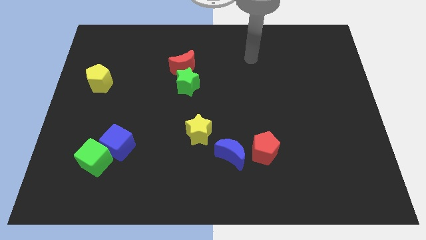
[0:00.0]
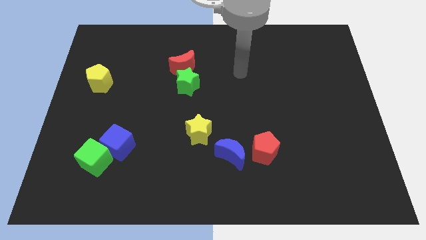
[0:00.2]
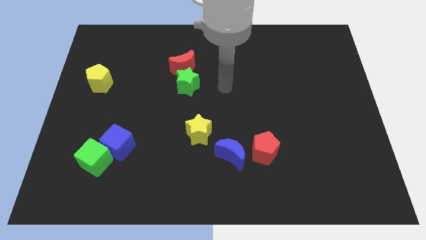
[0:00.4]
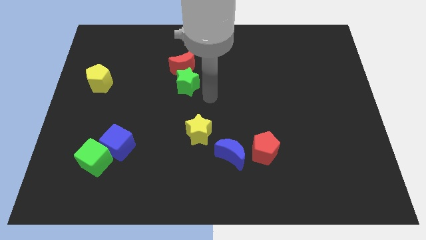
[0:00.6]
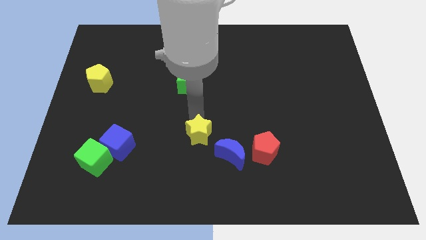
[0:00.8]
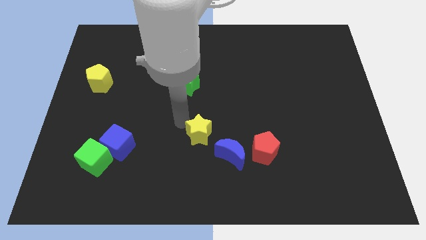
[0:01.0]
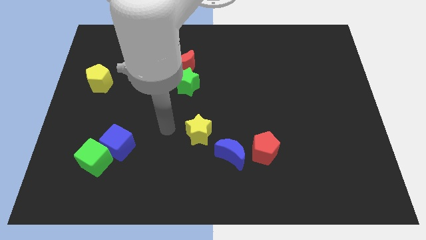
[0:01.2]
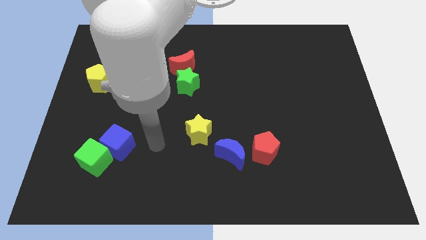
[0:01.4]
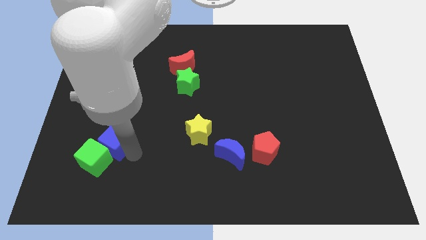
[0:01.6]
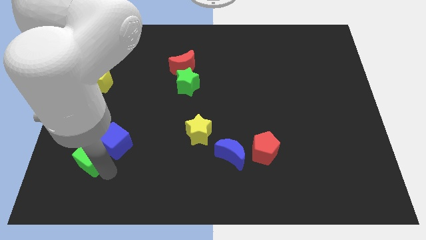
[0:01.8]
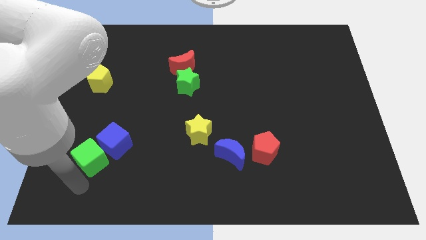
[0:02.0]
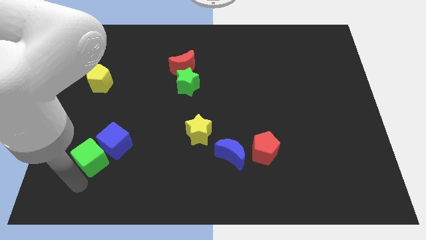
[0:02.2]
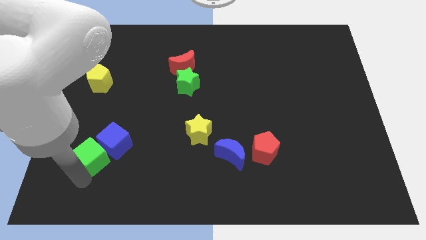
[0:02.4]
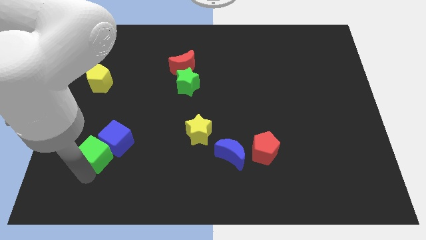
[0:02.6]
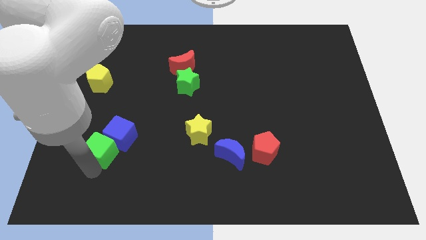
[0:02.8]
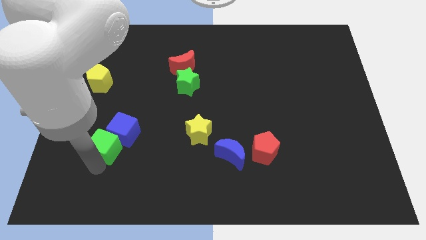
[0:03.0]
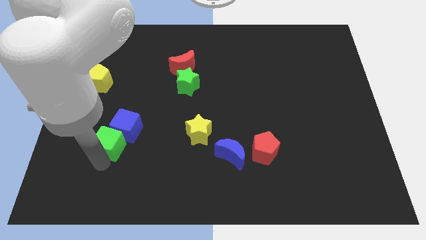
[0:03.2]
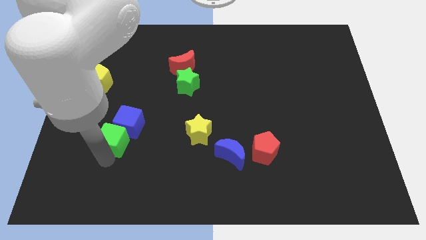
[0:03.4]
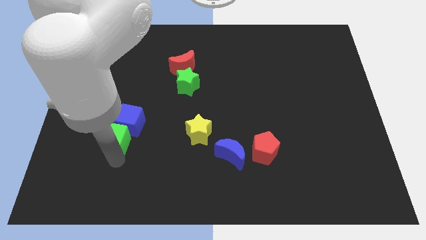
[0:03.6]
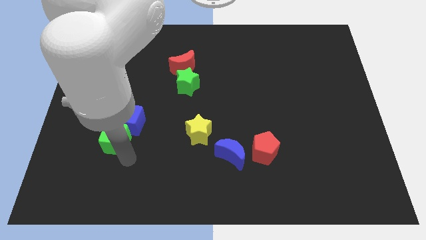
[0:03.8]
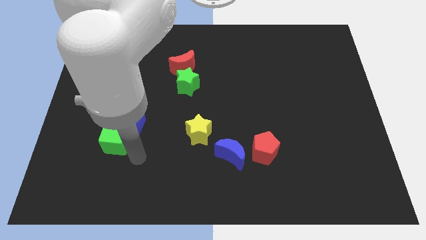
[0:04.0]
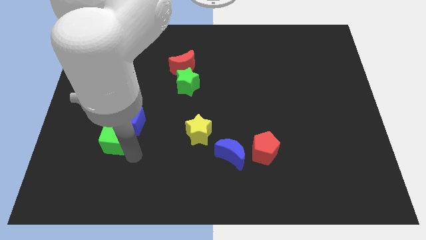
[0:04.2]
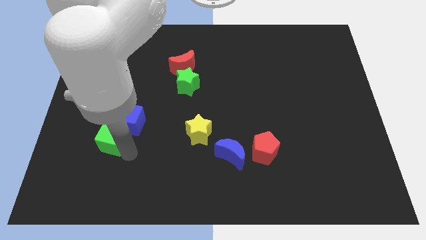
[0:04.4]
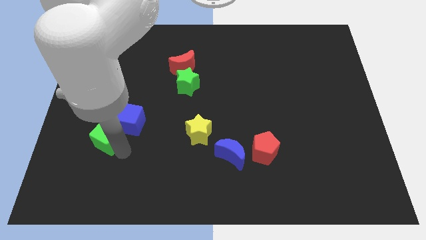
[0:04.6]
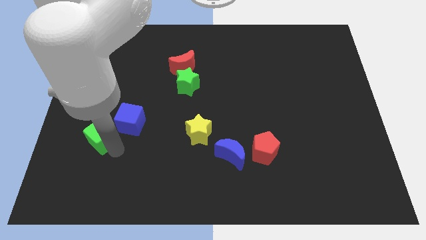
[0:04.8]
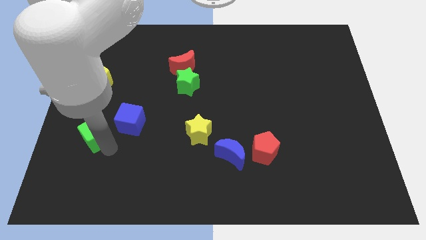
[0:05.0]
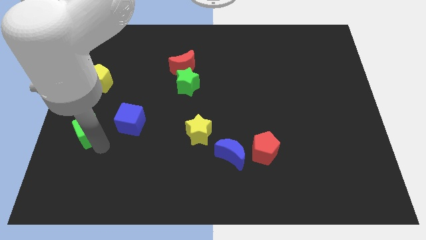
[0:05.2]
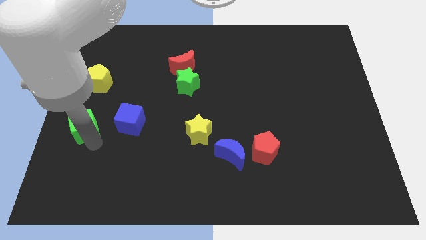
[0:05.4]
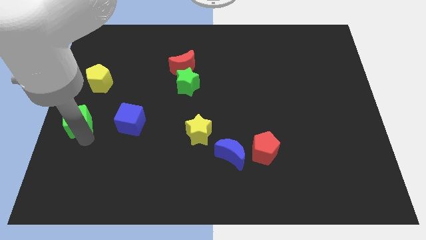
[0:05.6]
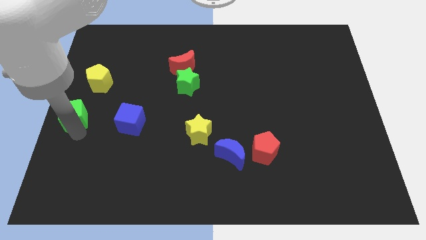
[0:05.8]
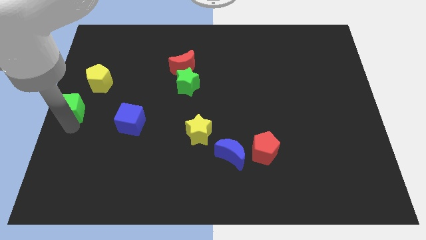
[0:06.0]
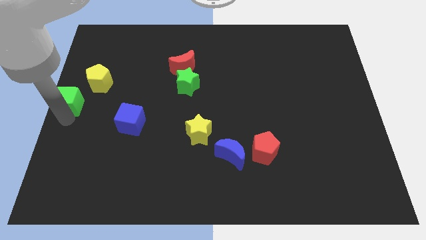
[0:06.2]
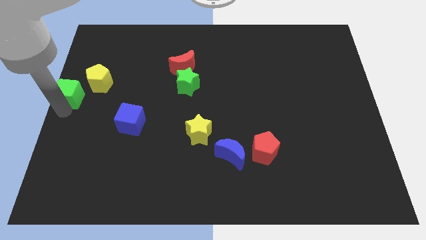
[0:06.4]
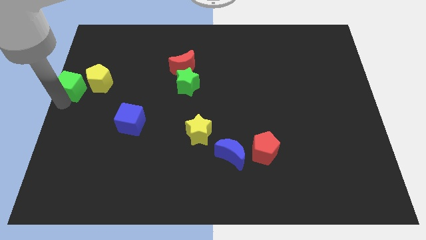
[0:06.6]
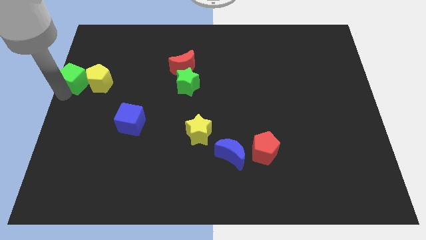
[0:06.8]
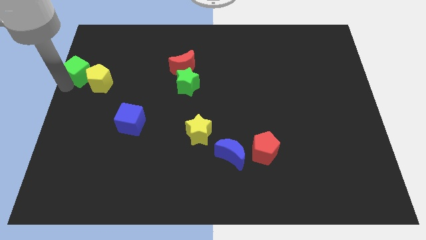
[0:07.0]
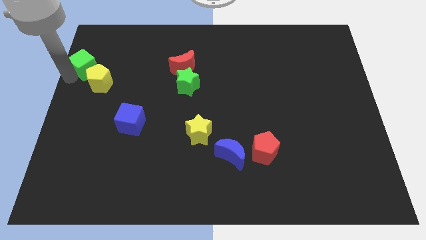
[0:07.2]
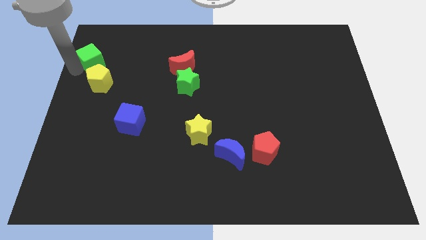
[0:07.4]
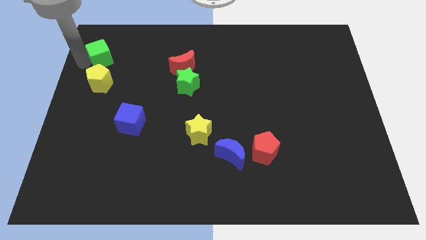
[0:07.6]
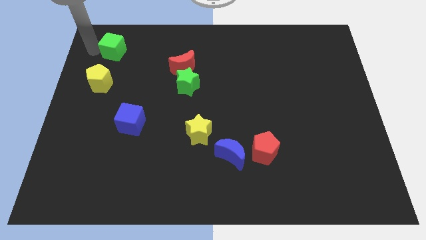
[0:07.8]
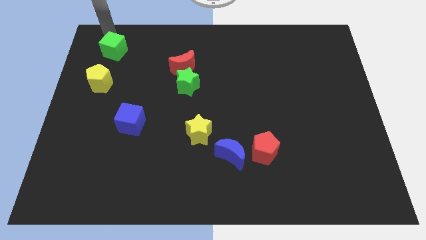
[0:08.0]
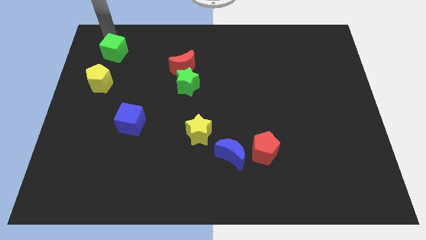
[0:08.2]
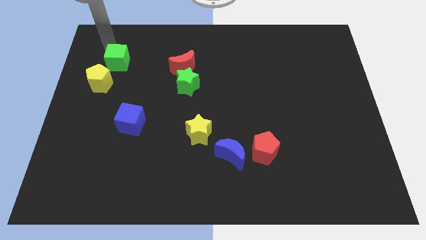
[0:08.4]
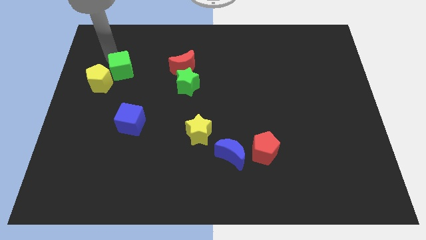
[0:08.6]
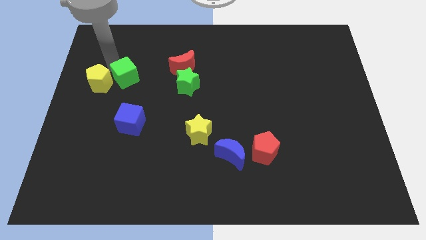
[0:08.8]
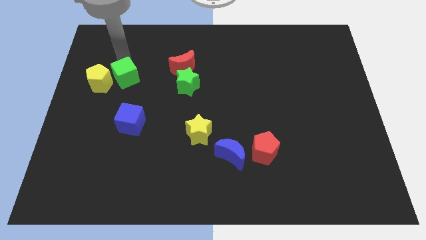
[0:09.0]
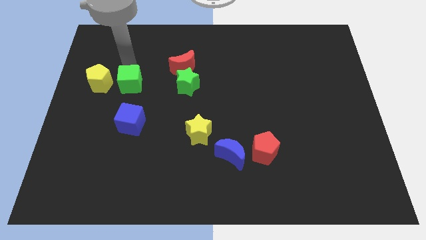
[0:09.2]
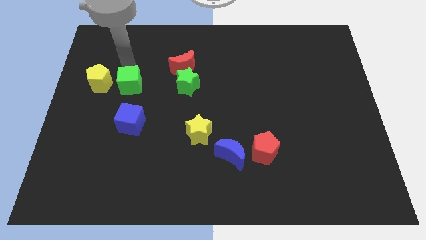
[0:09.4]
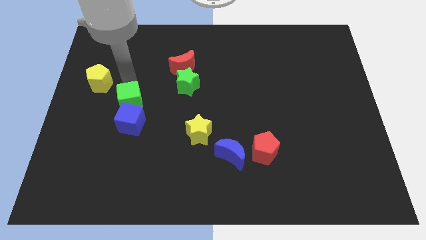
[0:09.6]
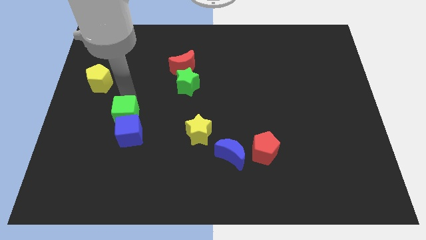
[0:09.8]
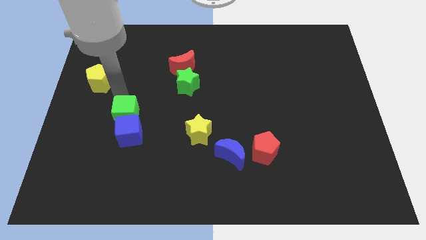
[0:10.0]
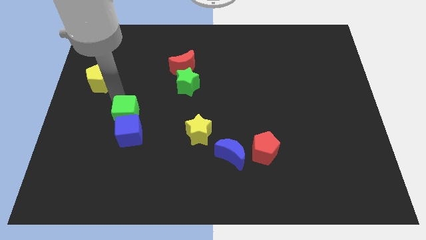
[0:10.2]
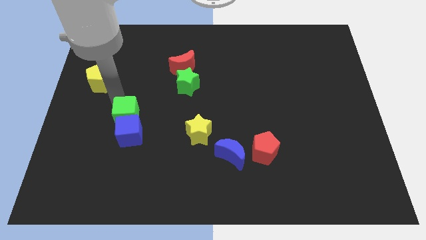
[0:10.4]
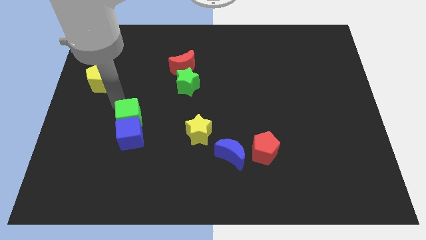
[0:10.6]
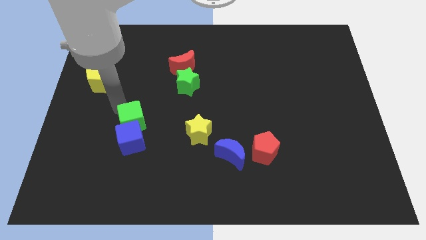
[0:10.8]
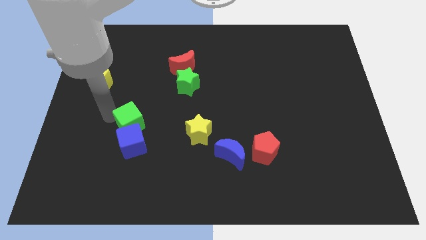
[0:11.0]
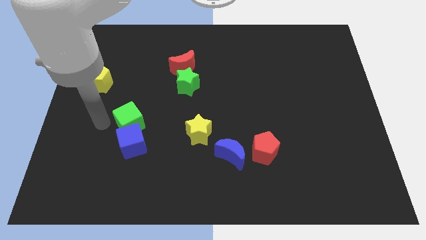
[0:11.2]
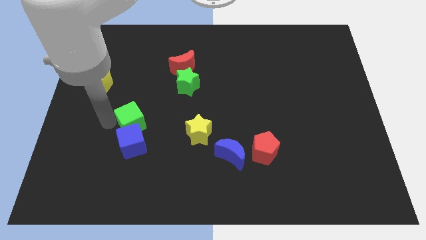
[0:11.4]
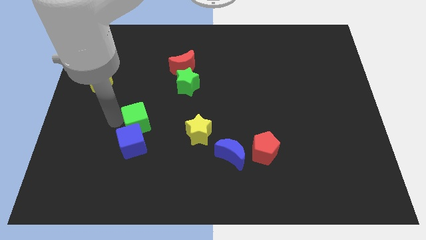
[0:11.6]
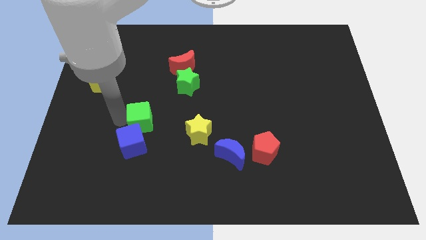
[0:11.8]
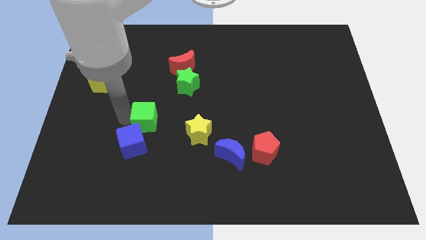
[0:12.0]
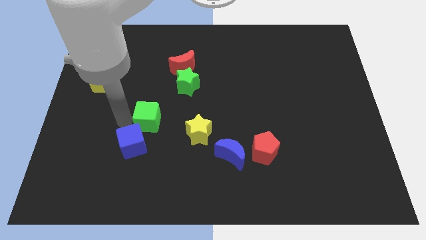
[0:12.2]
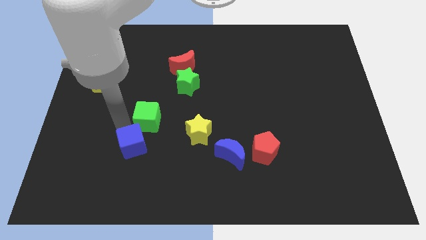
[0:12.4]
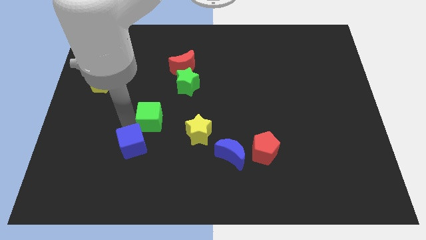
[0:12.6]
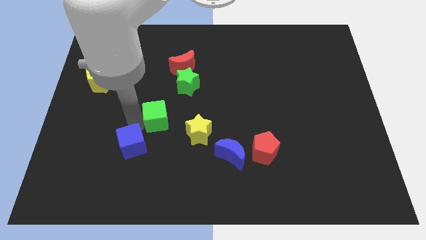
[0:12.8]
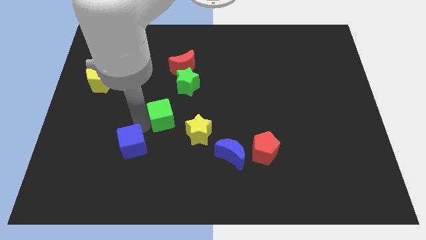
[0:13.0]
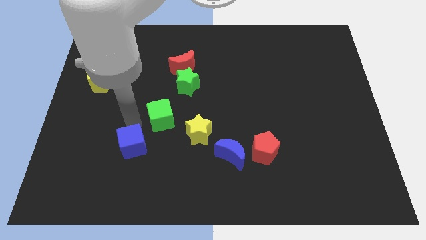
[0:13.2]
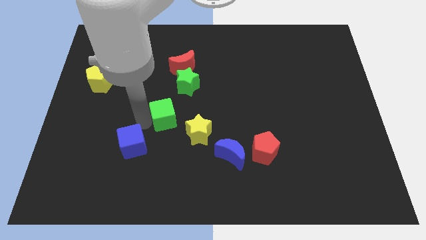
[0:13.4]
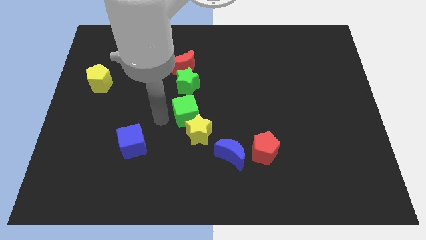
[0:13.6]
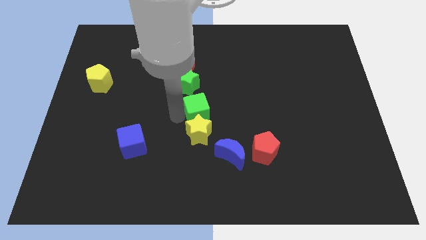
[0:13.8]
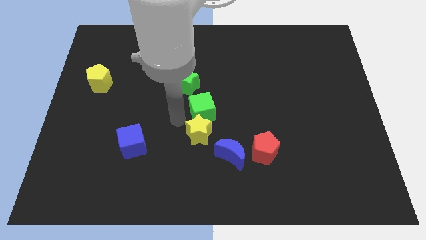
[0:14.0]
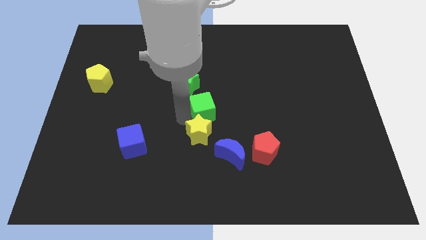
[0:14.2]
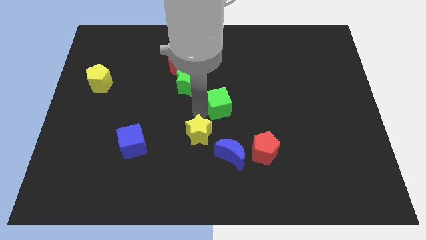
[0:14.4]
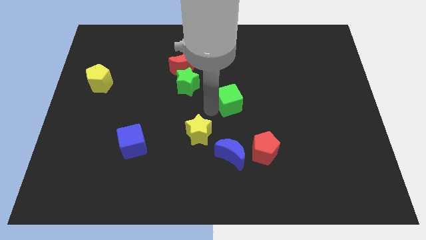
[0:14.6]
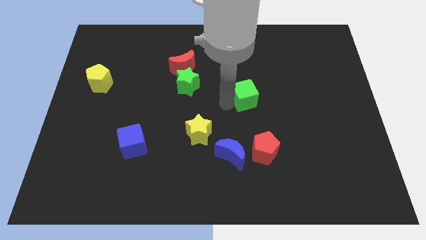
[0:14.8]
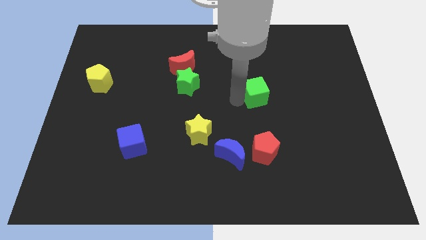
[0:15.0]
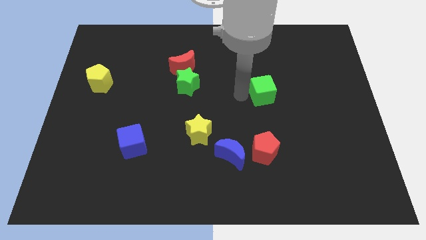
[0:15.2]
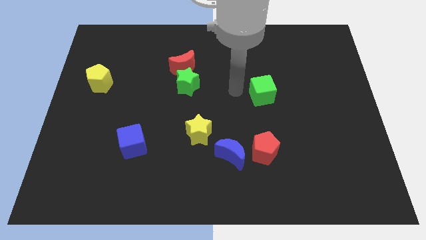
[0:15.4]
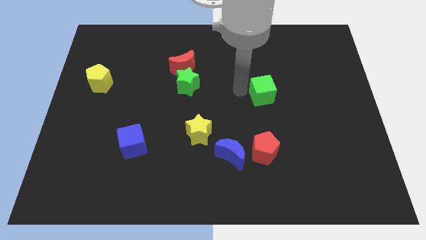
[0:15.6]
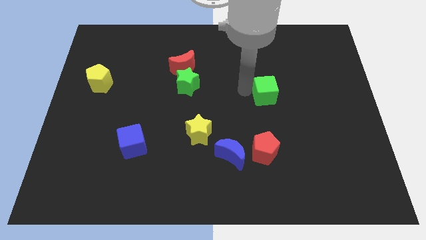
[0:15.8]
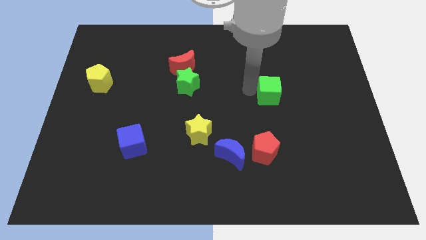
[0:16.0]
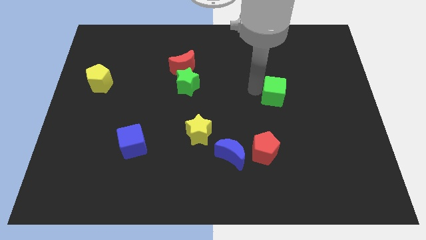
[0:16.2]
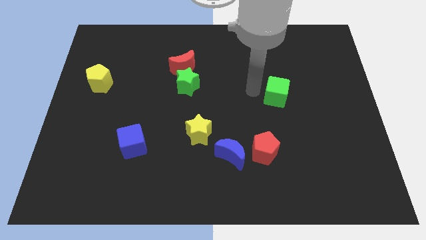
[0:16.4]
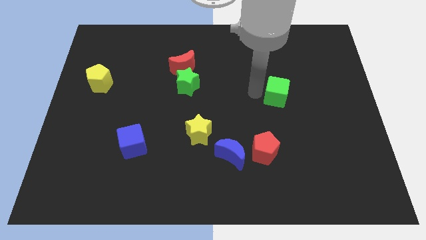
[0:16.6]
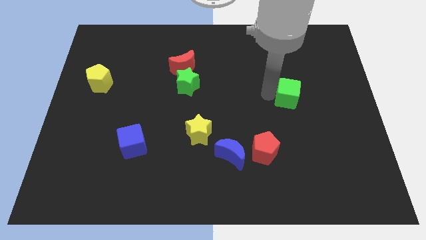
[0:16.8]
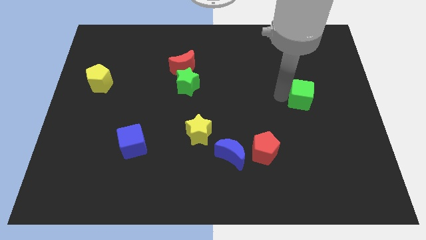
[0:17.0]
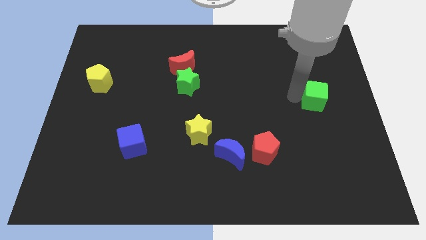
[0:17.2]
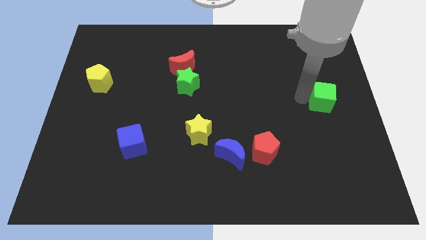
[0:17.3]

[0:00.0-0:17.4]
slide the green cube to the right side
